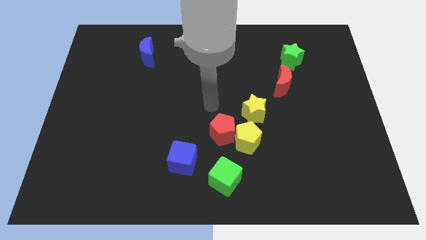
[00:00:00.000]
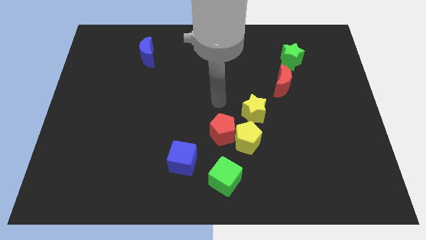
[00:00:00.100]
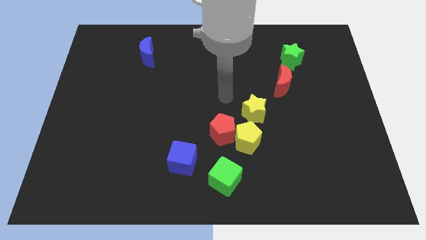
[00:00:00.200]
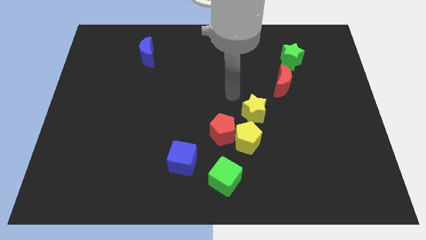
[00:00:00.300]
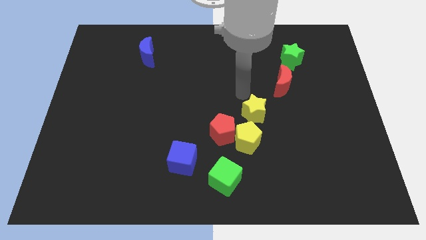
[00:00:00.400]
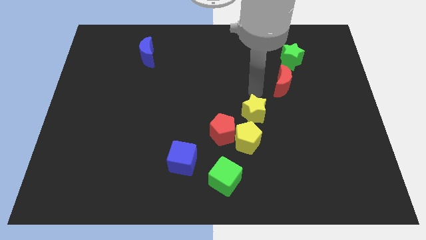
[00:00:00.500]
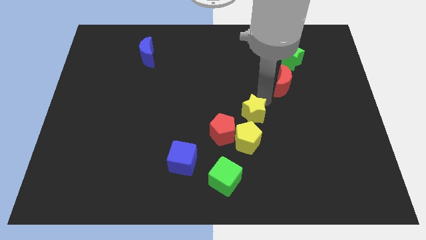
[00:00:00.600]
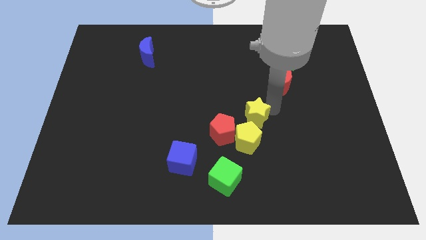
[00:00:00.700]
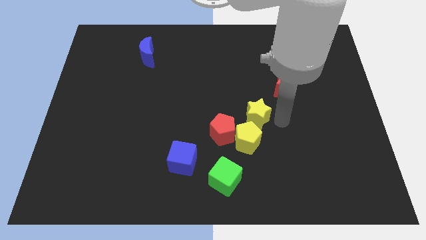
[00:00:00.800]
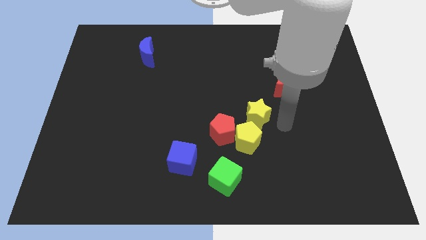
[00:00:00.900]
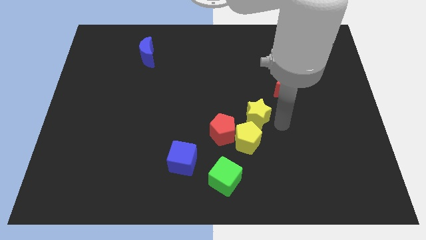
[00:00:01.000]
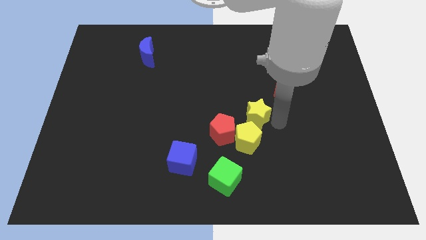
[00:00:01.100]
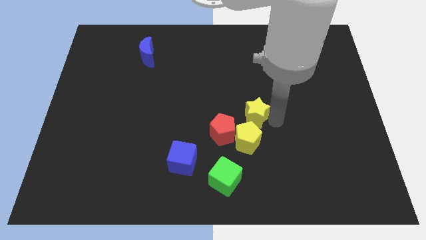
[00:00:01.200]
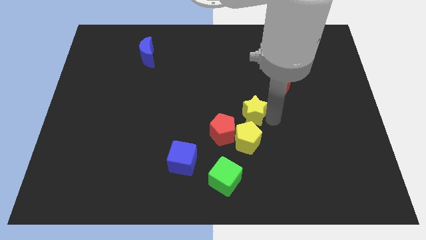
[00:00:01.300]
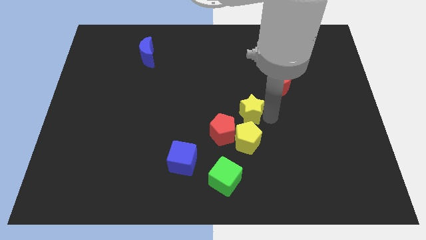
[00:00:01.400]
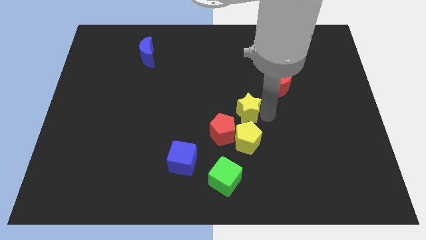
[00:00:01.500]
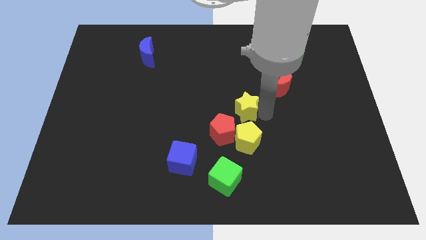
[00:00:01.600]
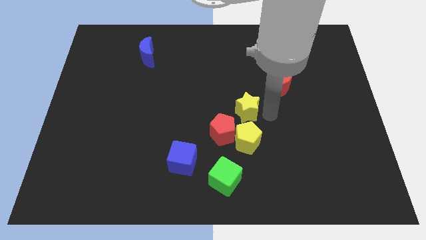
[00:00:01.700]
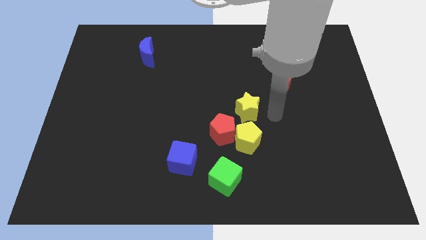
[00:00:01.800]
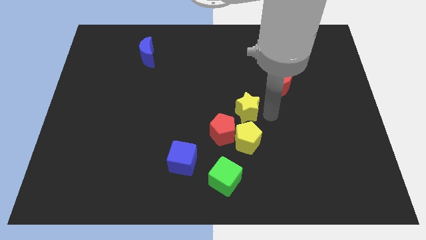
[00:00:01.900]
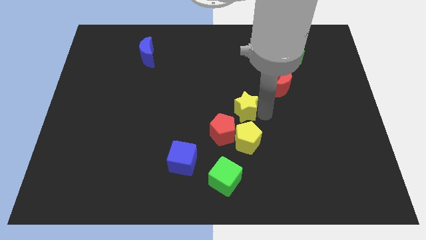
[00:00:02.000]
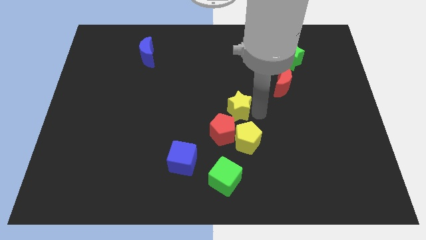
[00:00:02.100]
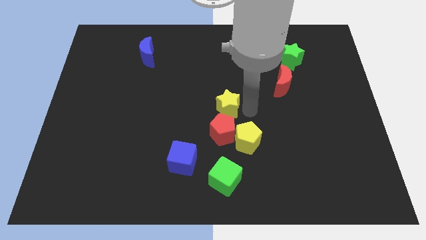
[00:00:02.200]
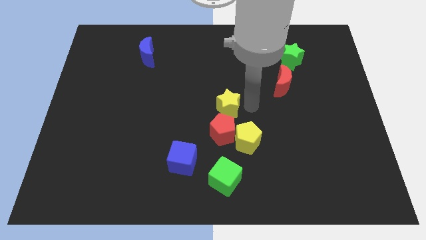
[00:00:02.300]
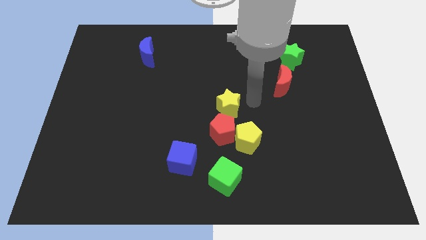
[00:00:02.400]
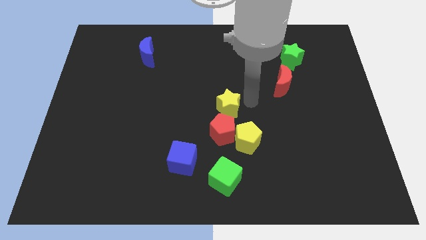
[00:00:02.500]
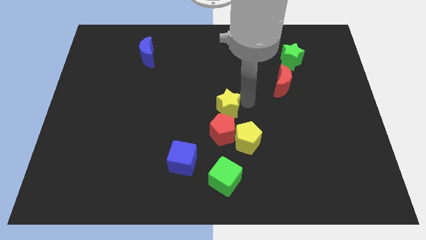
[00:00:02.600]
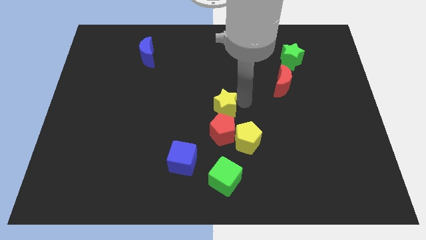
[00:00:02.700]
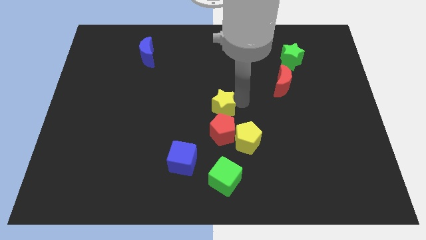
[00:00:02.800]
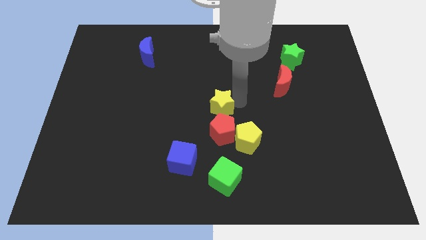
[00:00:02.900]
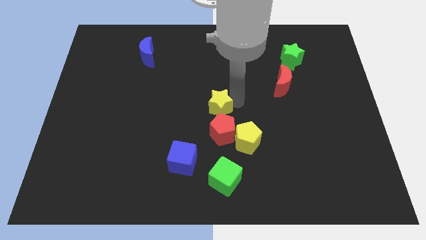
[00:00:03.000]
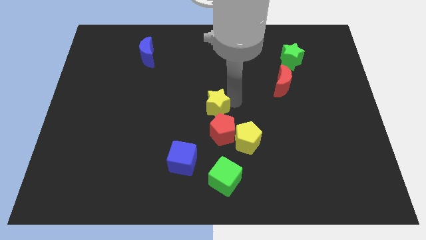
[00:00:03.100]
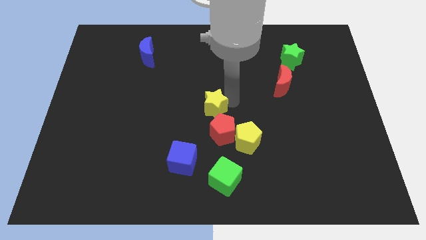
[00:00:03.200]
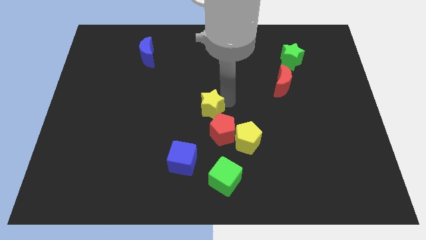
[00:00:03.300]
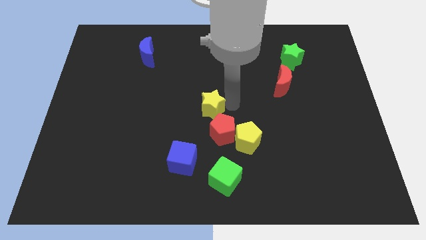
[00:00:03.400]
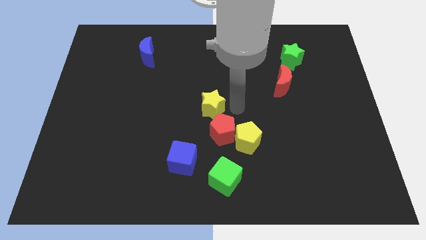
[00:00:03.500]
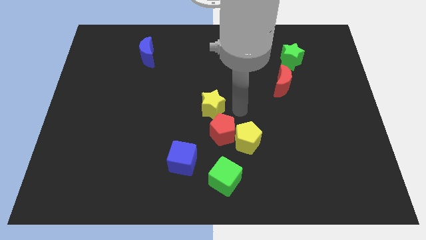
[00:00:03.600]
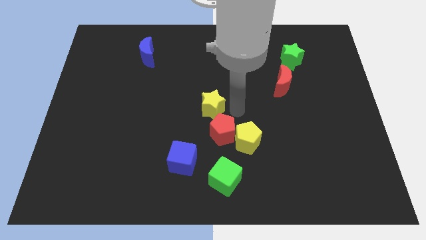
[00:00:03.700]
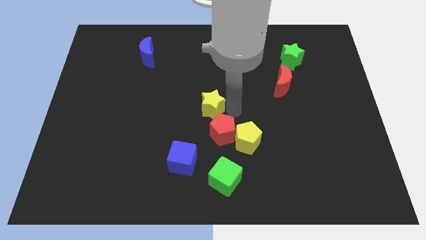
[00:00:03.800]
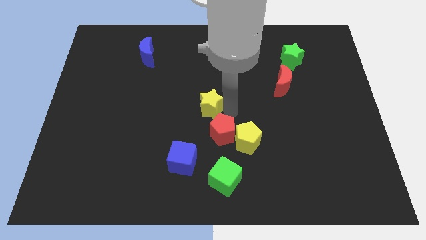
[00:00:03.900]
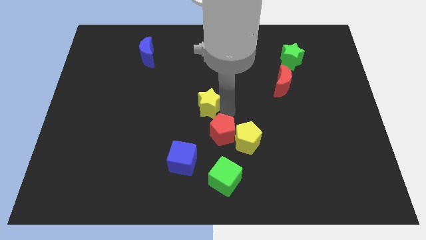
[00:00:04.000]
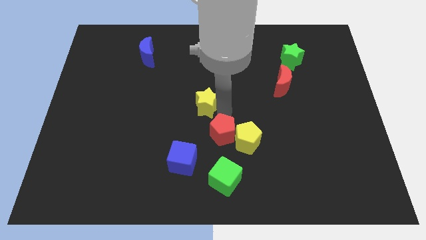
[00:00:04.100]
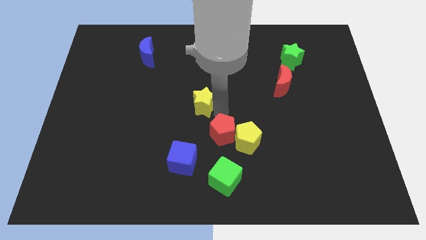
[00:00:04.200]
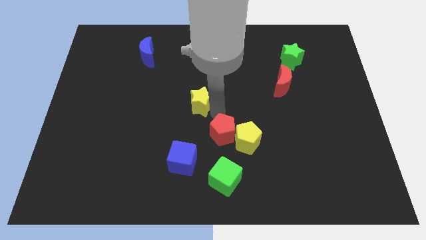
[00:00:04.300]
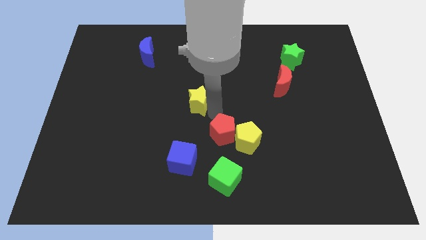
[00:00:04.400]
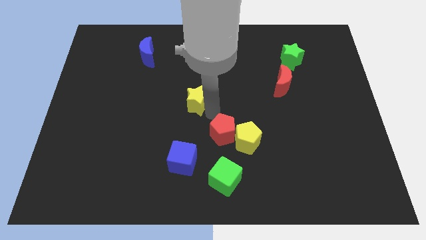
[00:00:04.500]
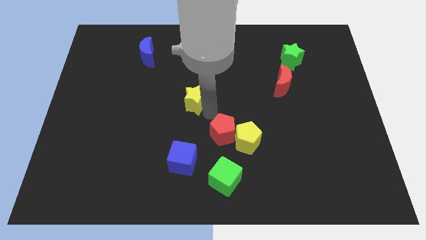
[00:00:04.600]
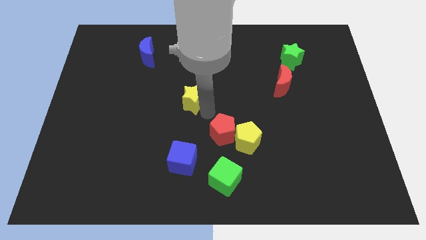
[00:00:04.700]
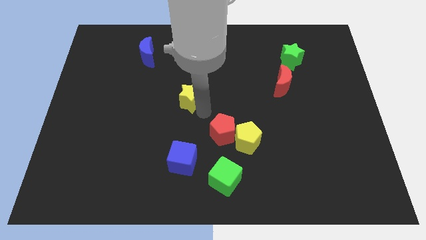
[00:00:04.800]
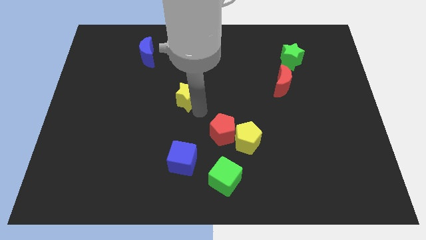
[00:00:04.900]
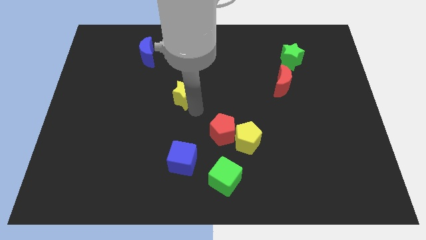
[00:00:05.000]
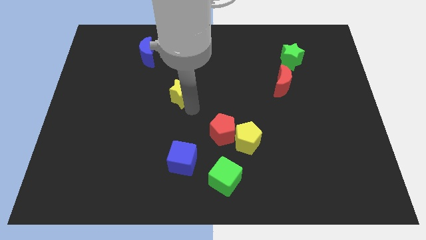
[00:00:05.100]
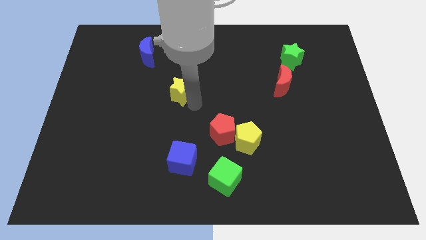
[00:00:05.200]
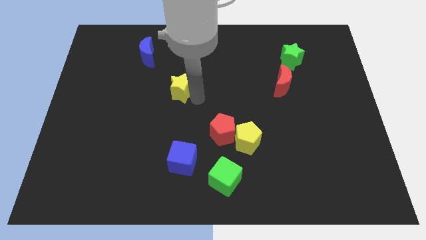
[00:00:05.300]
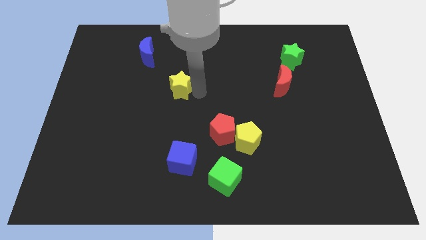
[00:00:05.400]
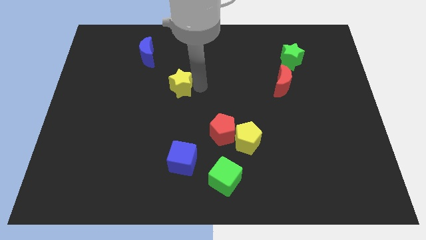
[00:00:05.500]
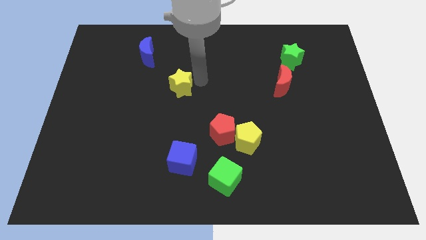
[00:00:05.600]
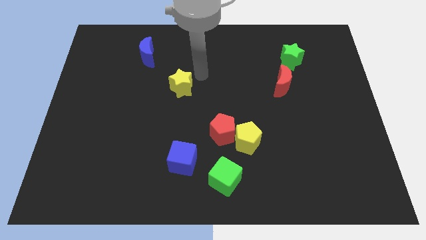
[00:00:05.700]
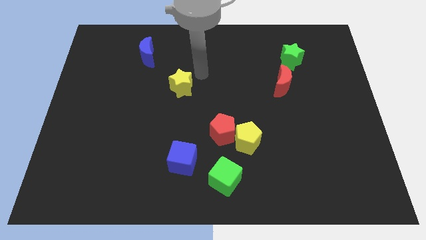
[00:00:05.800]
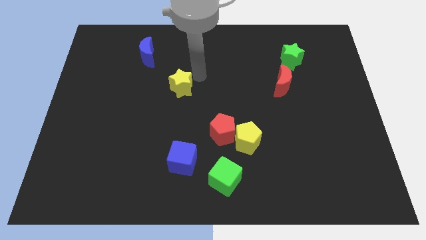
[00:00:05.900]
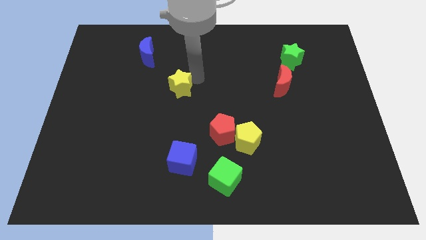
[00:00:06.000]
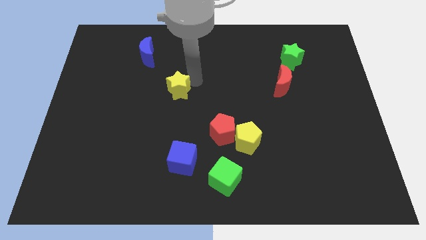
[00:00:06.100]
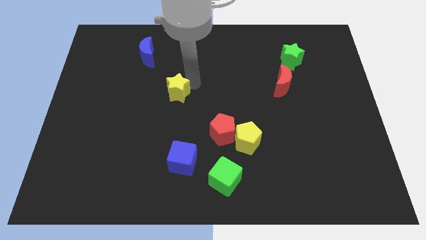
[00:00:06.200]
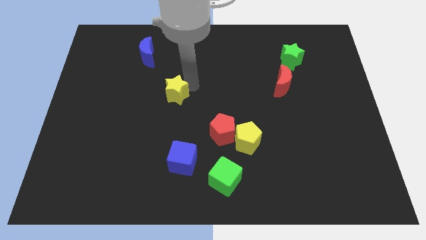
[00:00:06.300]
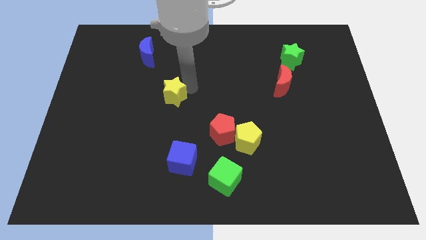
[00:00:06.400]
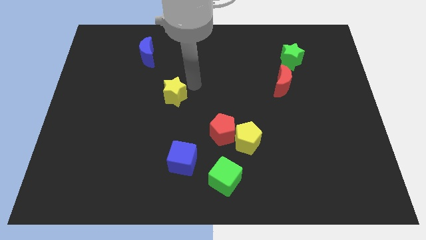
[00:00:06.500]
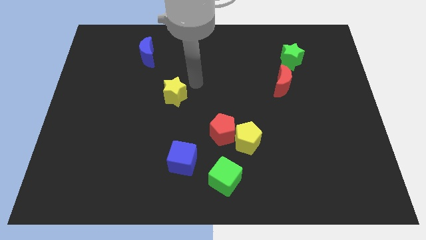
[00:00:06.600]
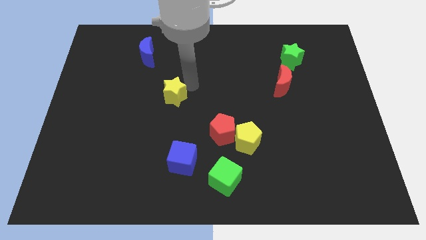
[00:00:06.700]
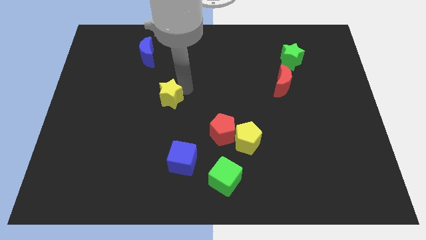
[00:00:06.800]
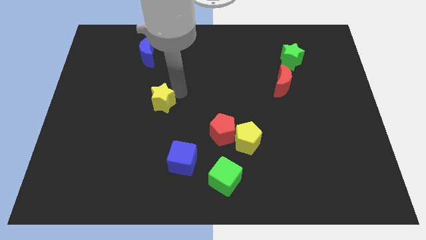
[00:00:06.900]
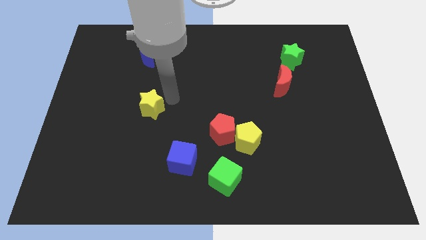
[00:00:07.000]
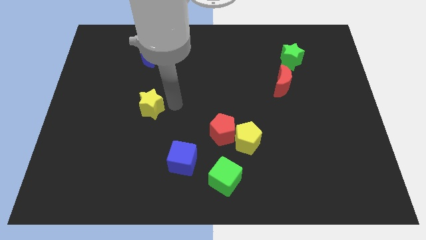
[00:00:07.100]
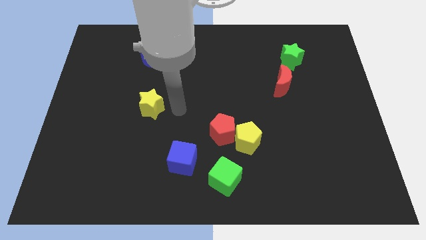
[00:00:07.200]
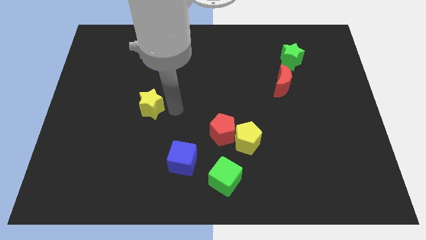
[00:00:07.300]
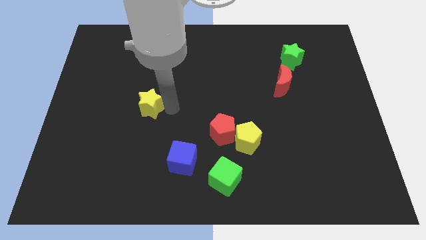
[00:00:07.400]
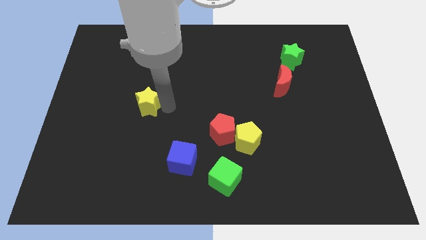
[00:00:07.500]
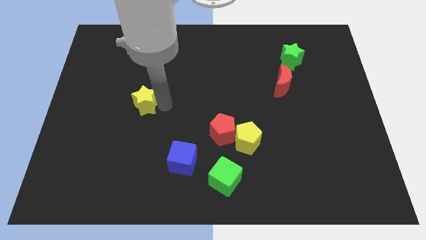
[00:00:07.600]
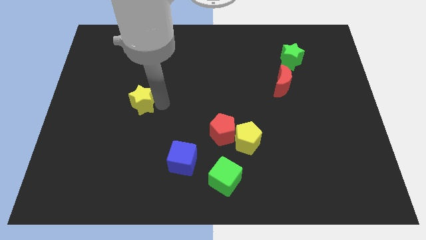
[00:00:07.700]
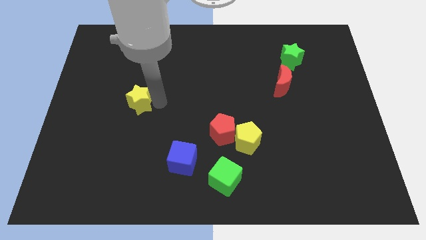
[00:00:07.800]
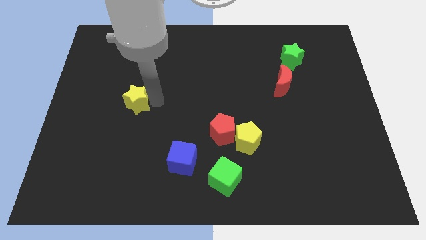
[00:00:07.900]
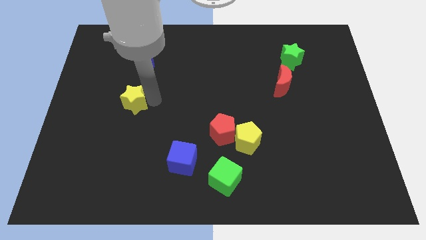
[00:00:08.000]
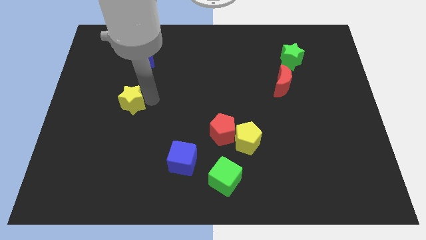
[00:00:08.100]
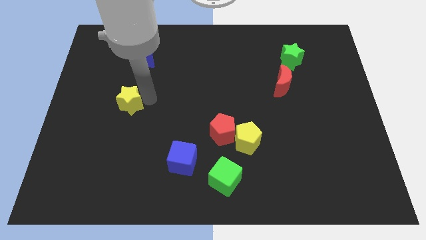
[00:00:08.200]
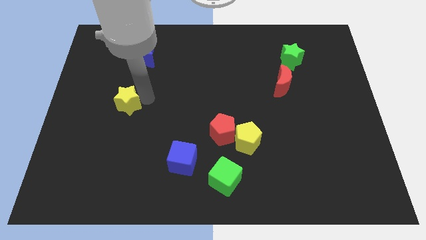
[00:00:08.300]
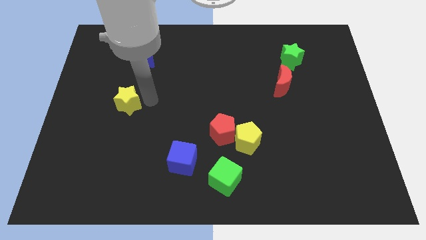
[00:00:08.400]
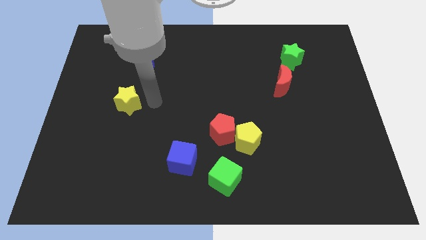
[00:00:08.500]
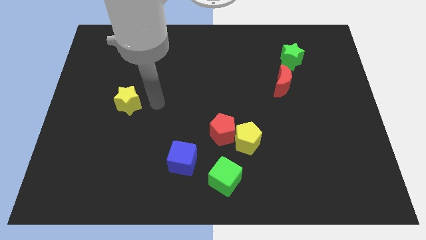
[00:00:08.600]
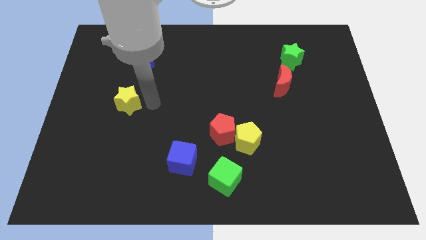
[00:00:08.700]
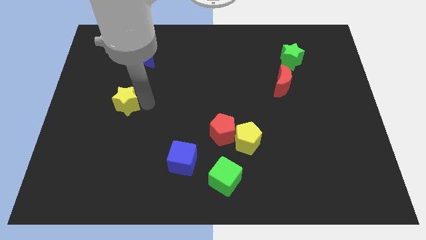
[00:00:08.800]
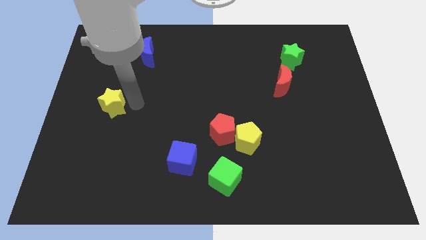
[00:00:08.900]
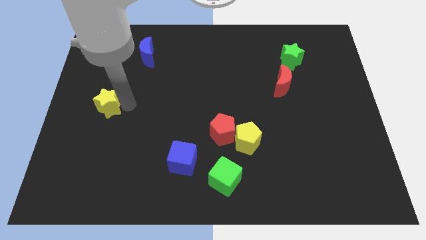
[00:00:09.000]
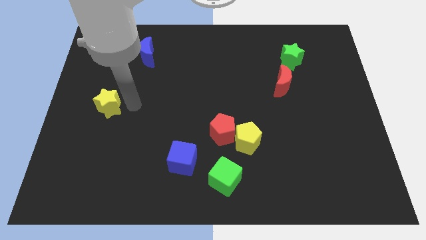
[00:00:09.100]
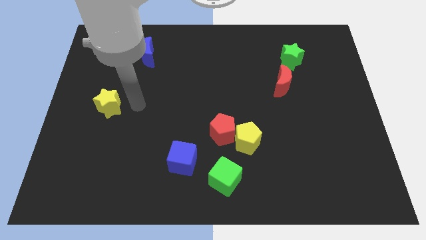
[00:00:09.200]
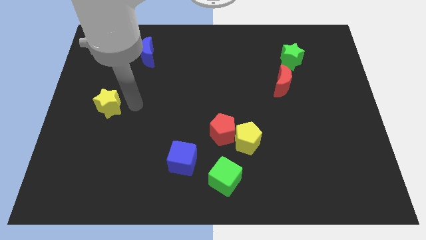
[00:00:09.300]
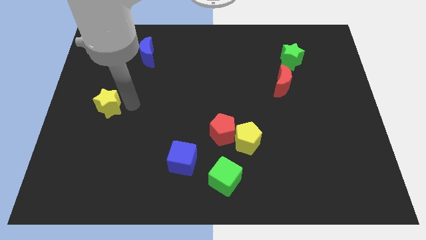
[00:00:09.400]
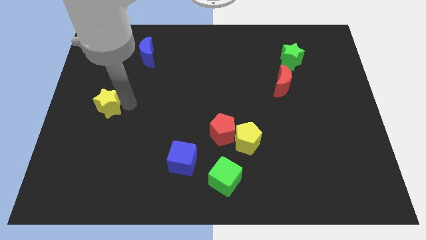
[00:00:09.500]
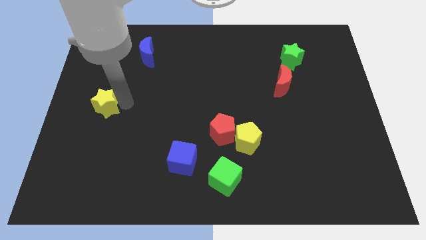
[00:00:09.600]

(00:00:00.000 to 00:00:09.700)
push the yellow star to the center left
